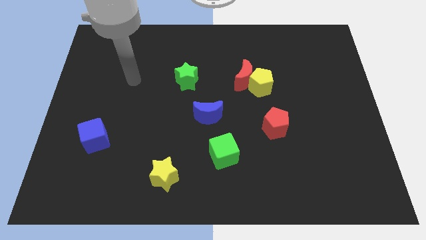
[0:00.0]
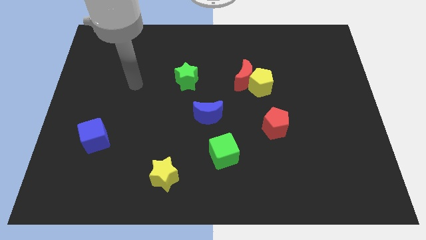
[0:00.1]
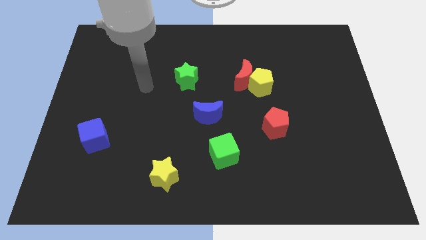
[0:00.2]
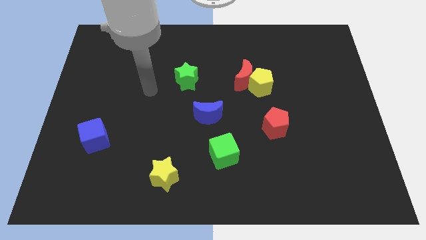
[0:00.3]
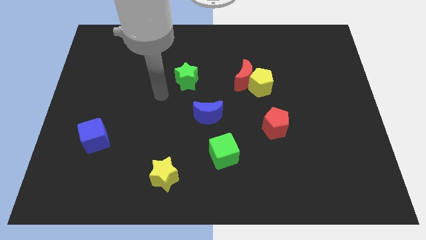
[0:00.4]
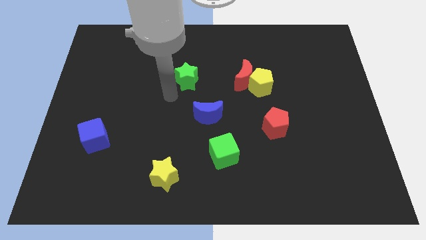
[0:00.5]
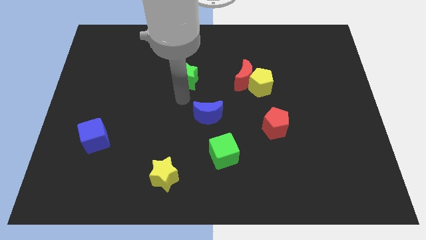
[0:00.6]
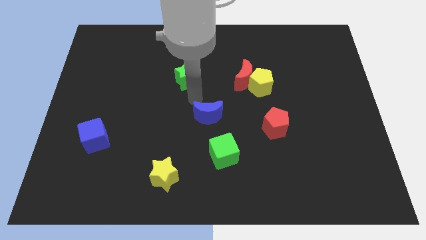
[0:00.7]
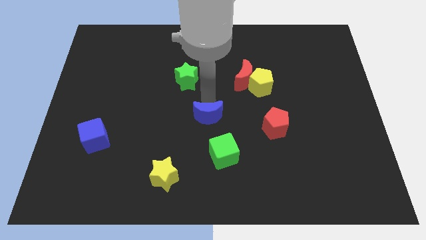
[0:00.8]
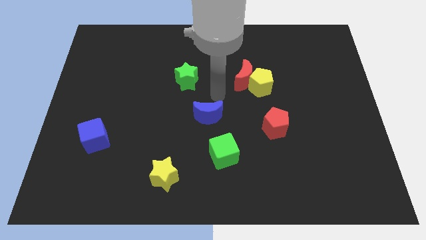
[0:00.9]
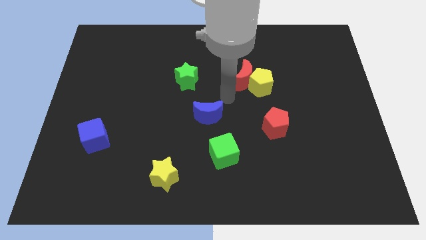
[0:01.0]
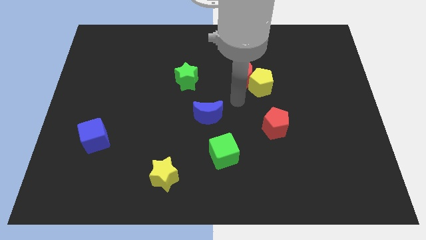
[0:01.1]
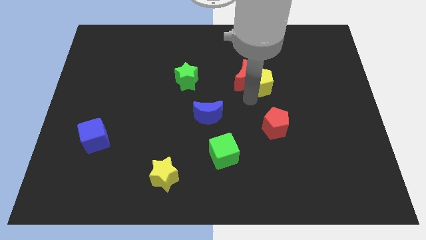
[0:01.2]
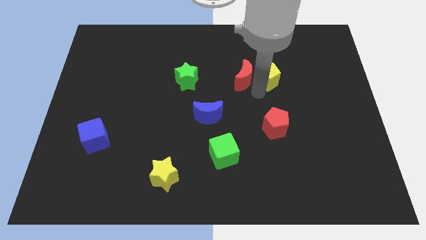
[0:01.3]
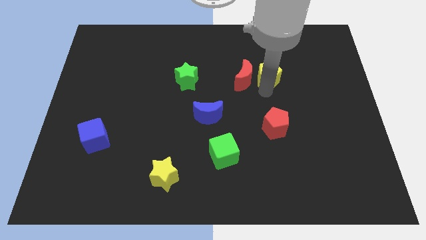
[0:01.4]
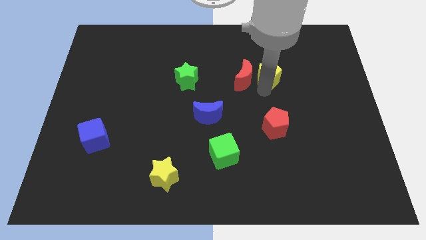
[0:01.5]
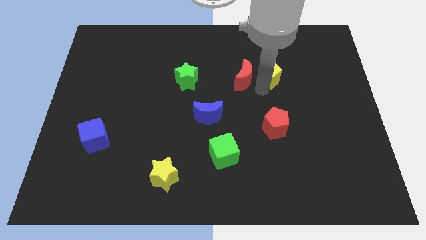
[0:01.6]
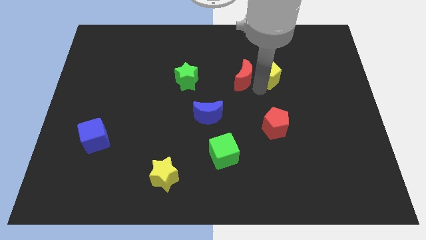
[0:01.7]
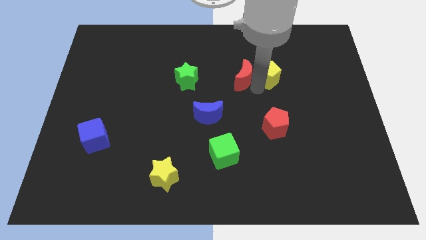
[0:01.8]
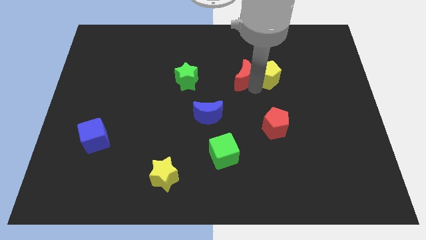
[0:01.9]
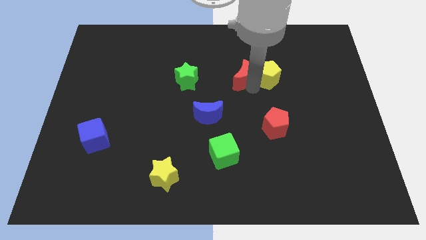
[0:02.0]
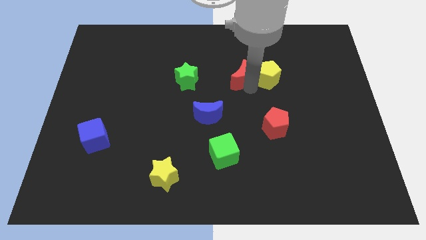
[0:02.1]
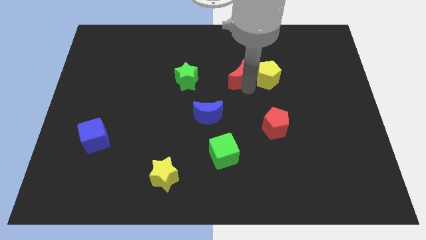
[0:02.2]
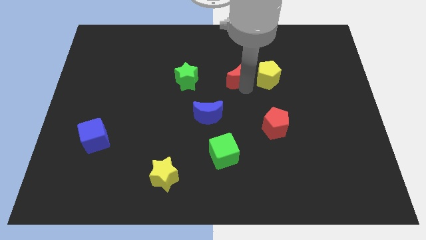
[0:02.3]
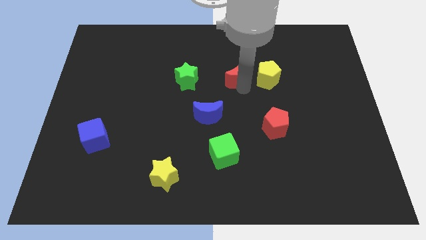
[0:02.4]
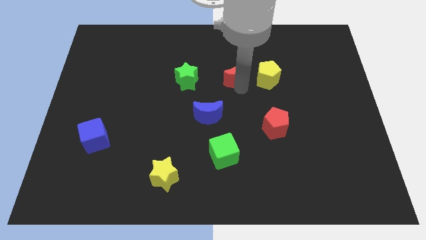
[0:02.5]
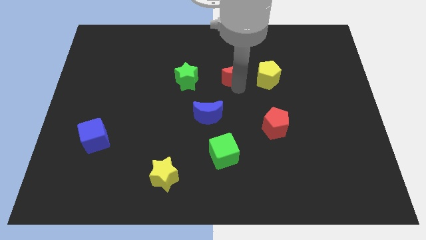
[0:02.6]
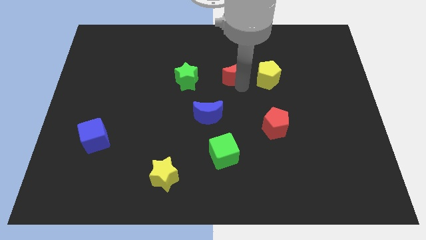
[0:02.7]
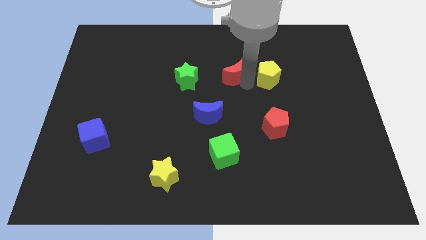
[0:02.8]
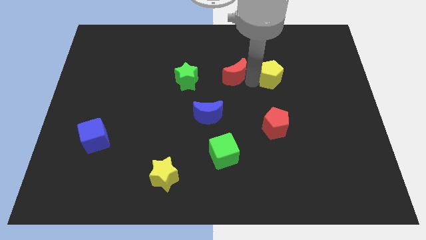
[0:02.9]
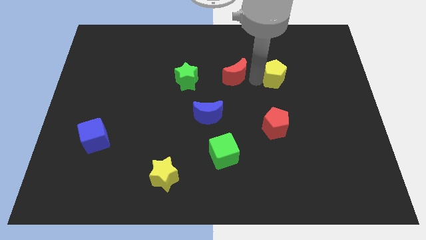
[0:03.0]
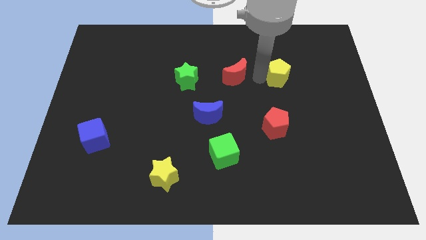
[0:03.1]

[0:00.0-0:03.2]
pull the red moon apart from the yellow pentagon

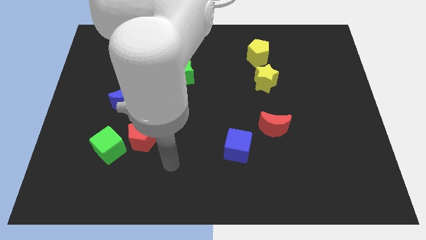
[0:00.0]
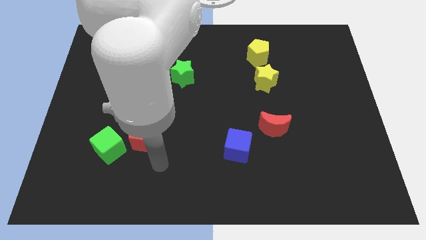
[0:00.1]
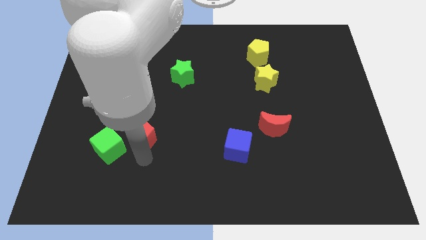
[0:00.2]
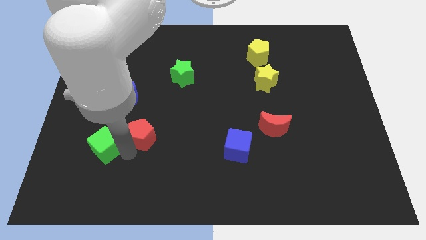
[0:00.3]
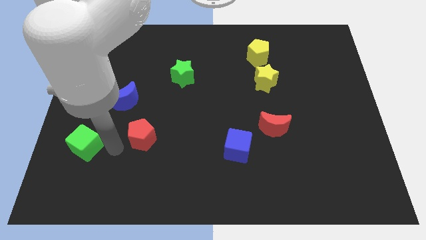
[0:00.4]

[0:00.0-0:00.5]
separate the red pentagon from the green cube

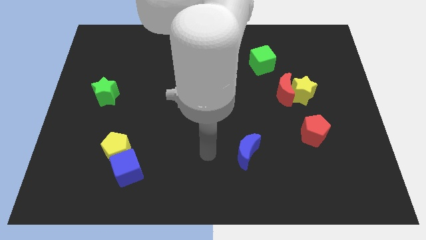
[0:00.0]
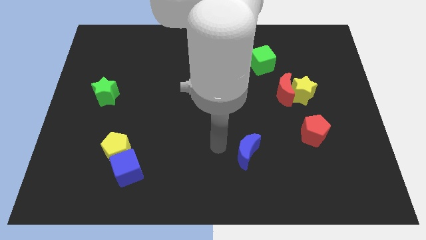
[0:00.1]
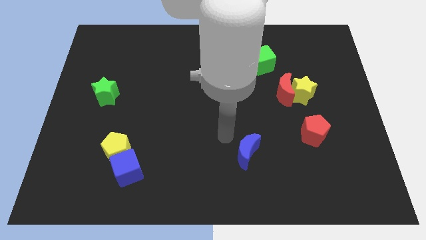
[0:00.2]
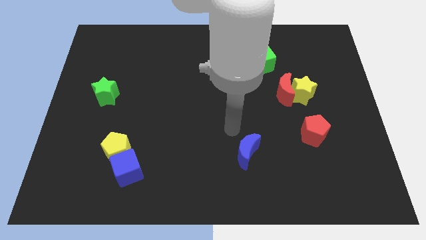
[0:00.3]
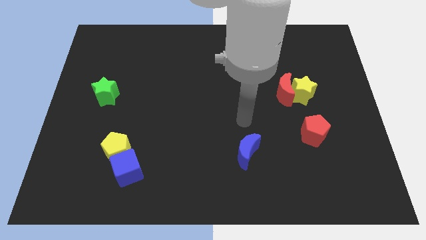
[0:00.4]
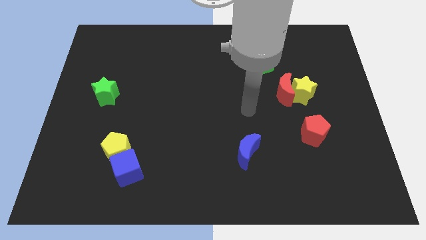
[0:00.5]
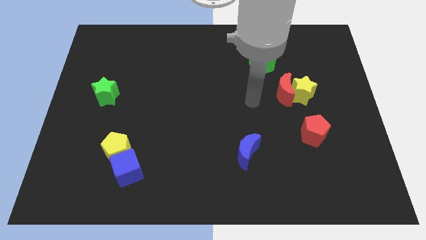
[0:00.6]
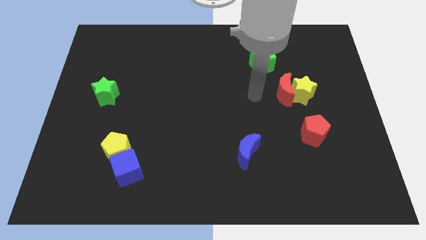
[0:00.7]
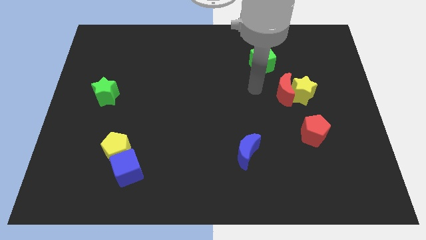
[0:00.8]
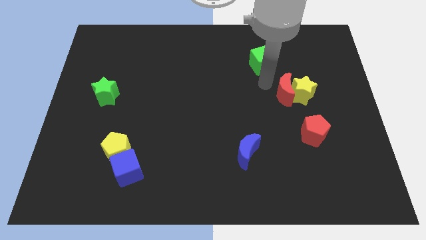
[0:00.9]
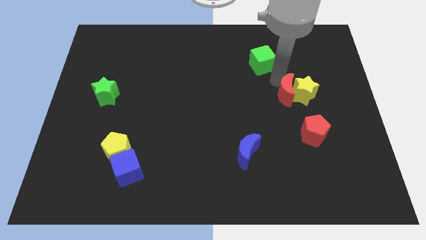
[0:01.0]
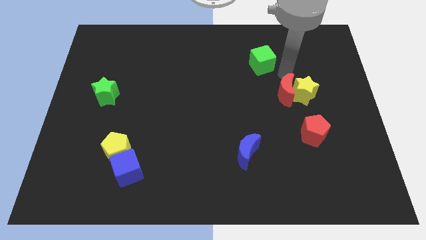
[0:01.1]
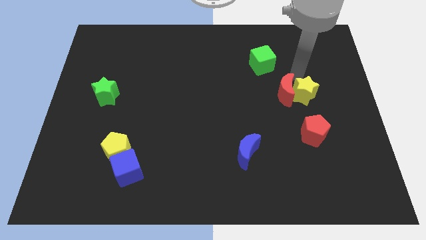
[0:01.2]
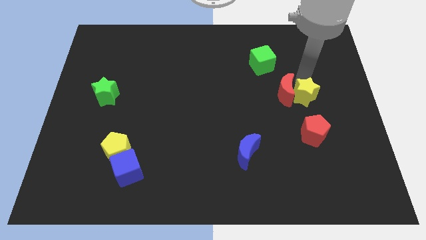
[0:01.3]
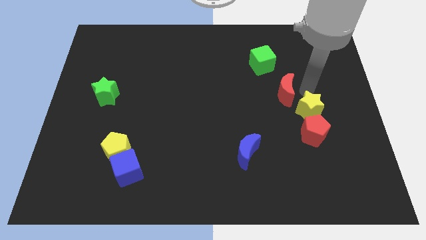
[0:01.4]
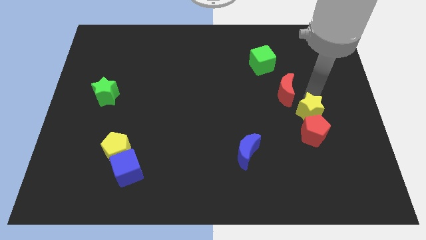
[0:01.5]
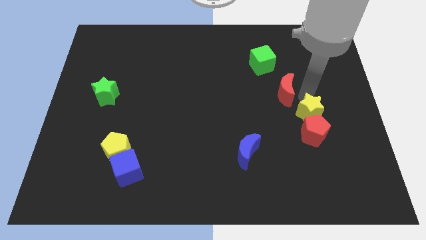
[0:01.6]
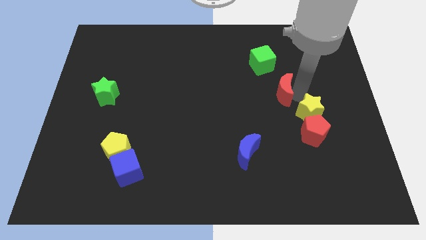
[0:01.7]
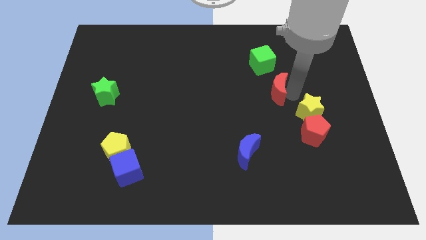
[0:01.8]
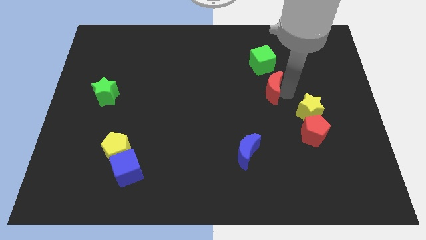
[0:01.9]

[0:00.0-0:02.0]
move the red moon away from the yellow star

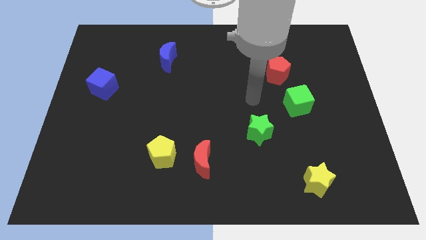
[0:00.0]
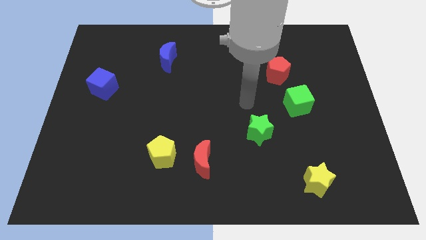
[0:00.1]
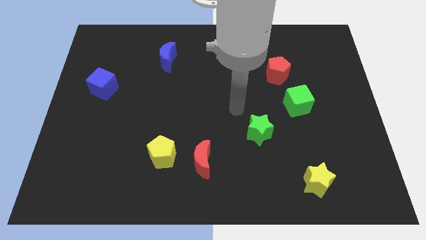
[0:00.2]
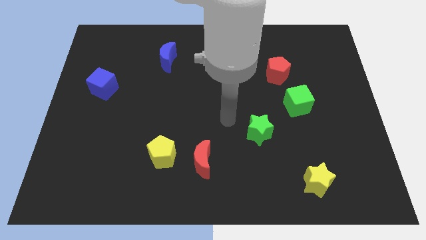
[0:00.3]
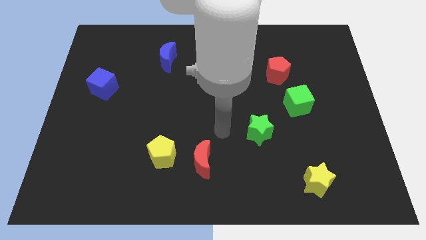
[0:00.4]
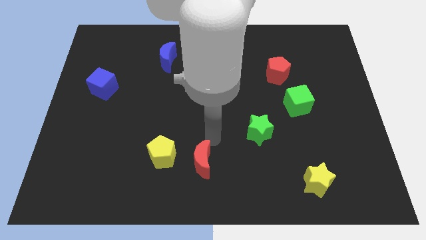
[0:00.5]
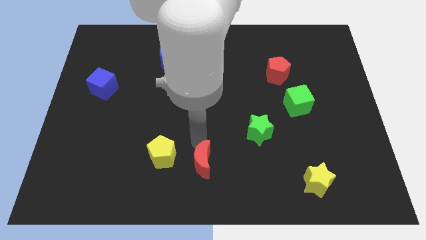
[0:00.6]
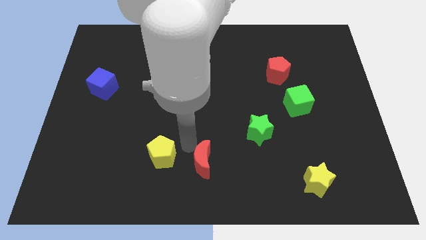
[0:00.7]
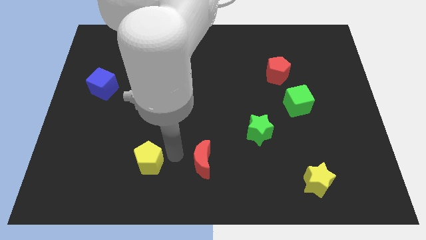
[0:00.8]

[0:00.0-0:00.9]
separate the red moon from the yellow pentagon

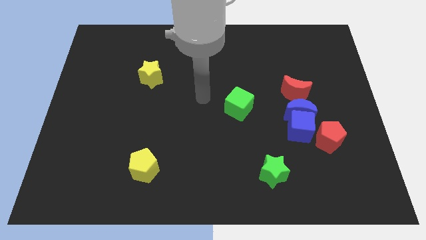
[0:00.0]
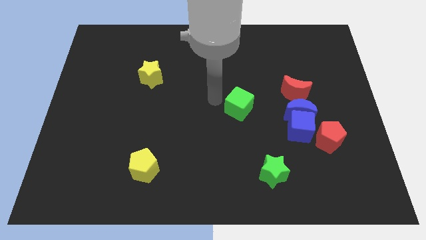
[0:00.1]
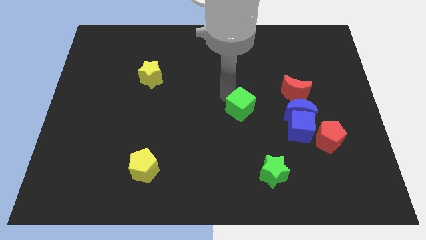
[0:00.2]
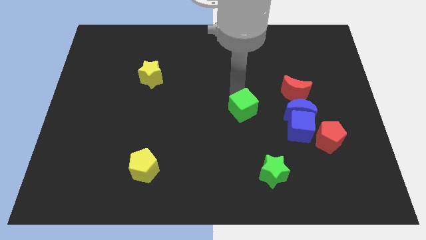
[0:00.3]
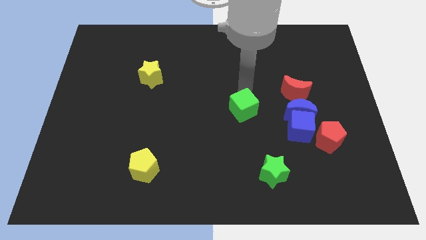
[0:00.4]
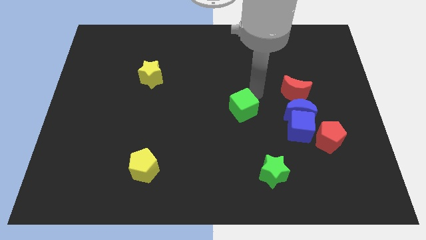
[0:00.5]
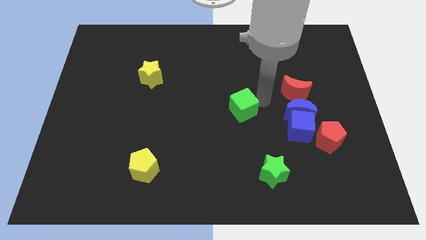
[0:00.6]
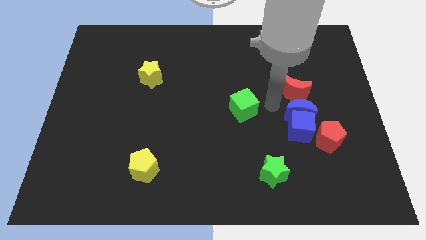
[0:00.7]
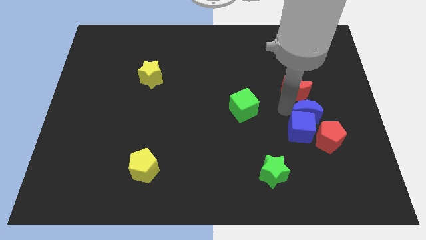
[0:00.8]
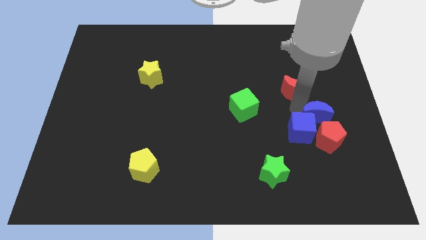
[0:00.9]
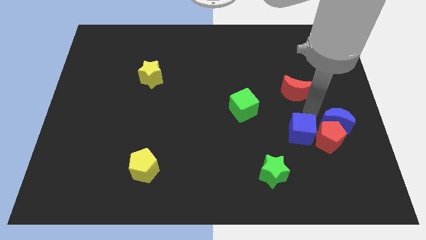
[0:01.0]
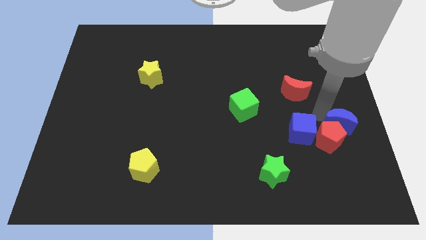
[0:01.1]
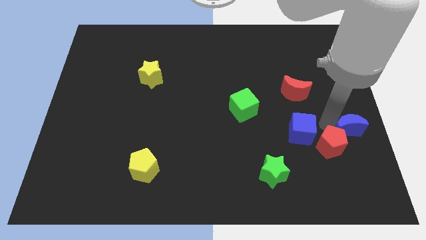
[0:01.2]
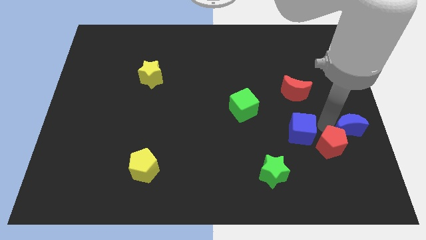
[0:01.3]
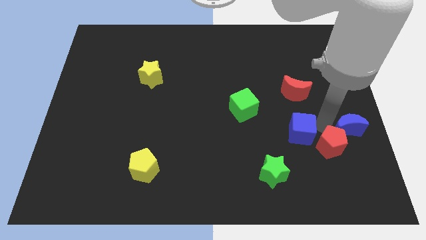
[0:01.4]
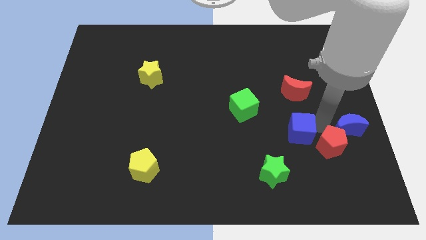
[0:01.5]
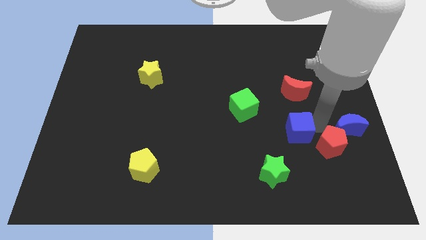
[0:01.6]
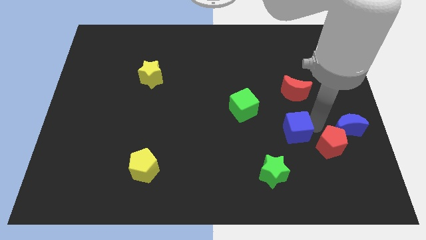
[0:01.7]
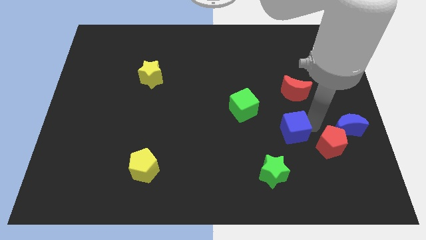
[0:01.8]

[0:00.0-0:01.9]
separate the blue cube from the blue moon and red pentagon

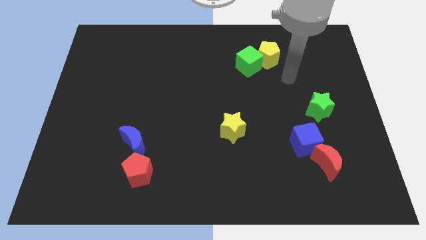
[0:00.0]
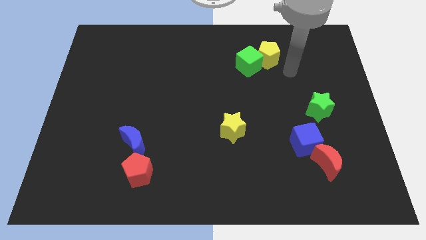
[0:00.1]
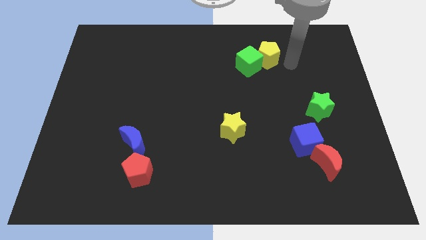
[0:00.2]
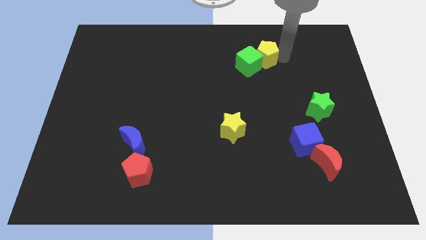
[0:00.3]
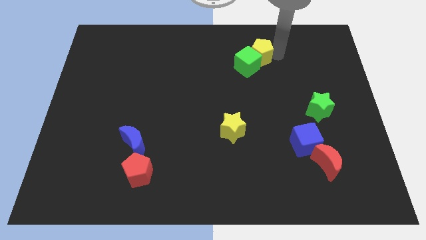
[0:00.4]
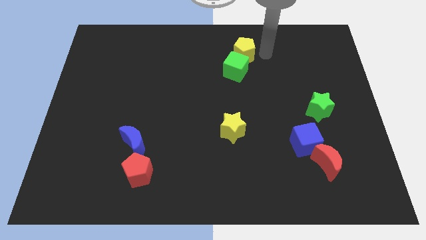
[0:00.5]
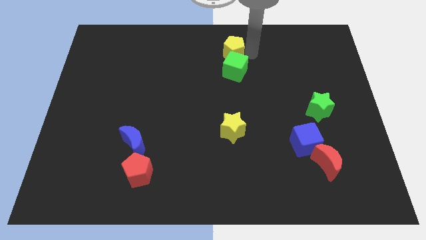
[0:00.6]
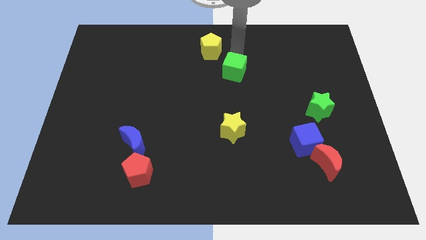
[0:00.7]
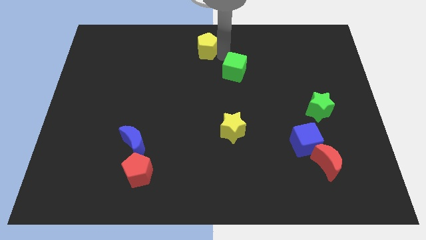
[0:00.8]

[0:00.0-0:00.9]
pull the green cube apart from the yellow pentagon
